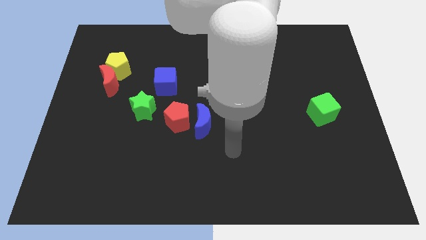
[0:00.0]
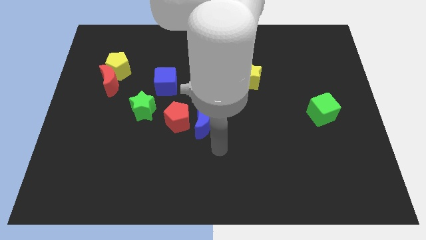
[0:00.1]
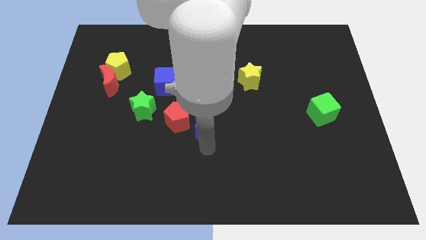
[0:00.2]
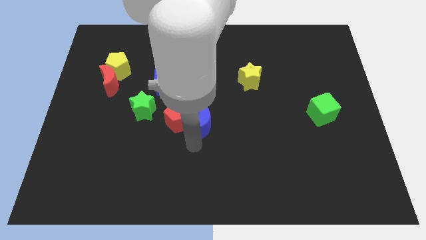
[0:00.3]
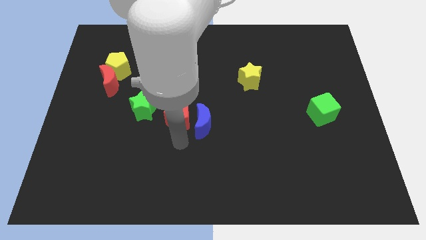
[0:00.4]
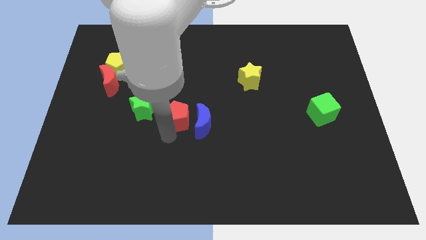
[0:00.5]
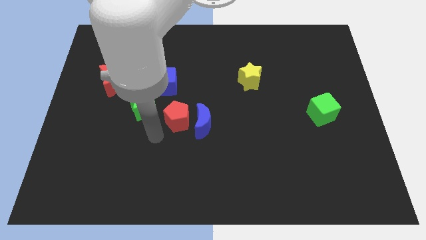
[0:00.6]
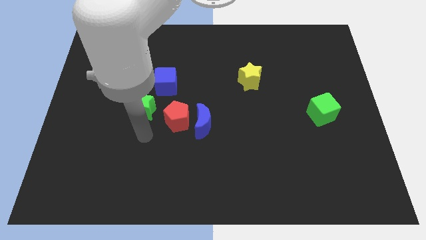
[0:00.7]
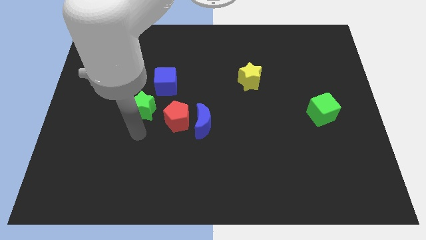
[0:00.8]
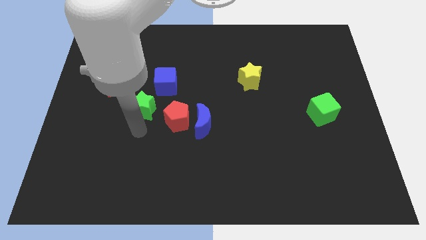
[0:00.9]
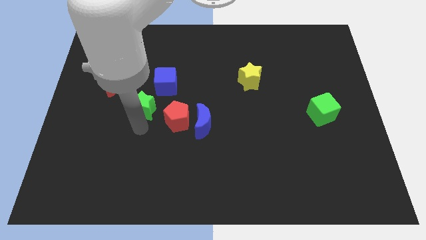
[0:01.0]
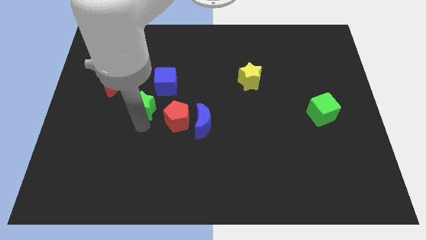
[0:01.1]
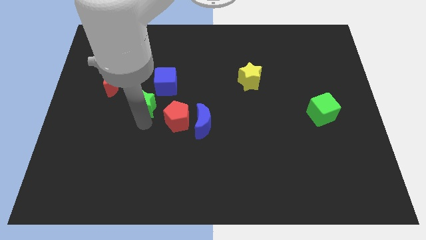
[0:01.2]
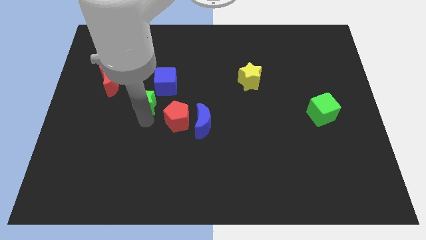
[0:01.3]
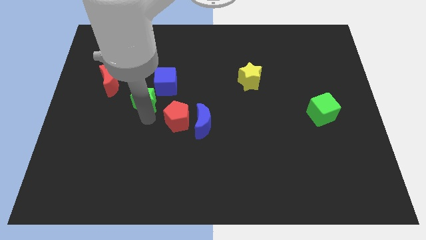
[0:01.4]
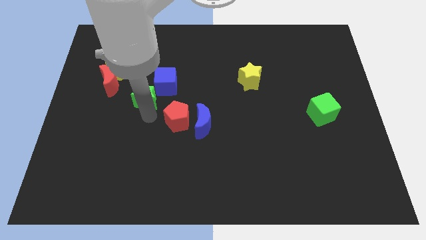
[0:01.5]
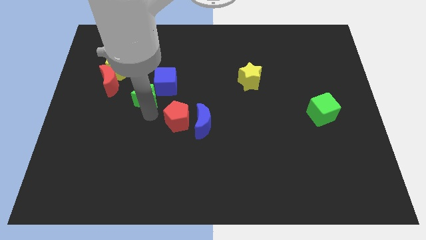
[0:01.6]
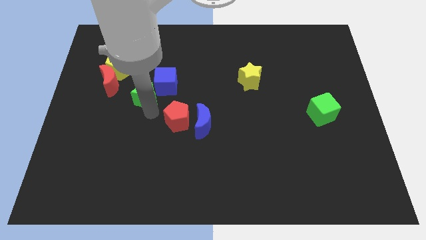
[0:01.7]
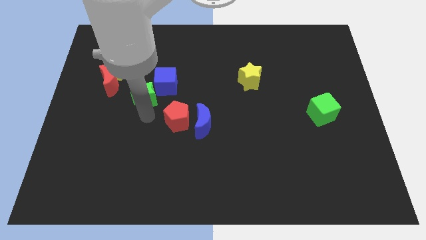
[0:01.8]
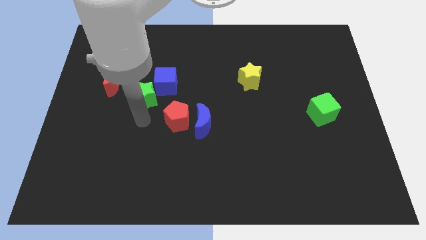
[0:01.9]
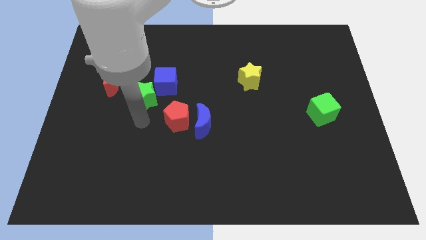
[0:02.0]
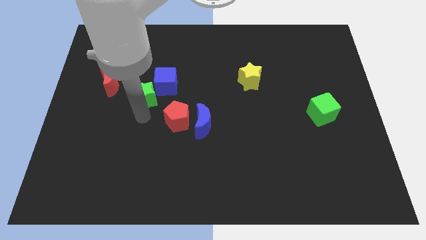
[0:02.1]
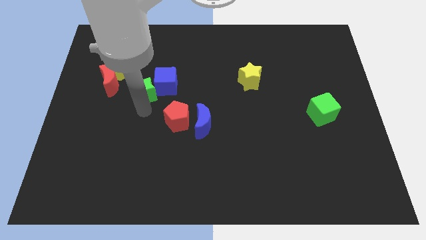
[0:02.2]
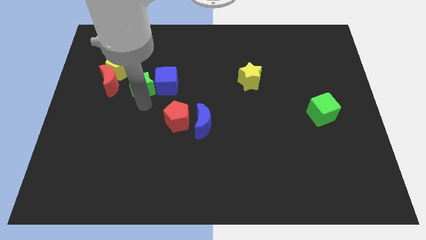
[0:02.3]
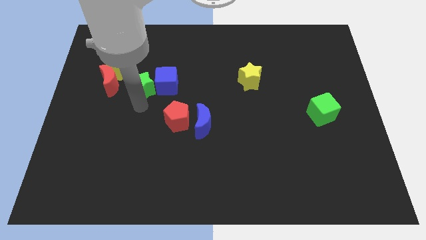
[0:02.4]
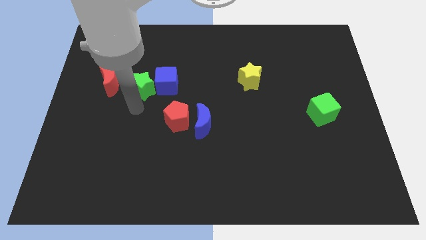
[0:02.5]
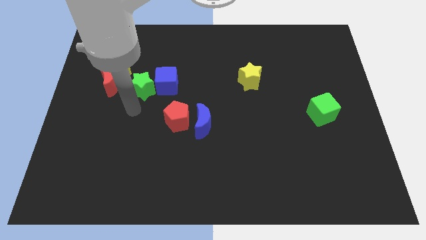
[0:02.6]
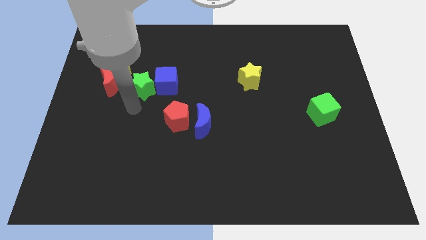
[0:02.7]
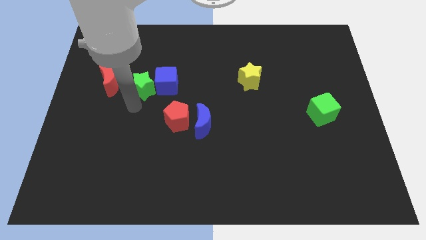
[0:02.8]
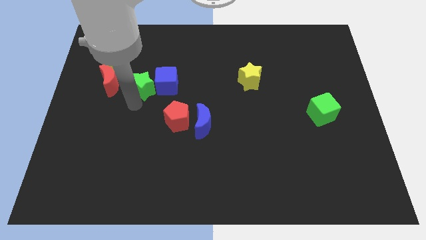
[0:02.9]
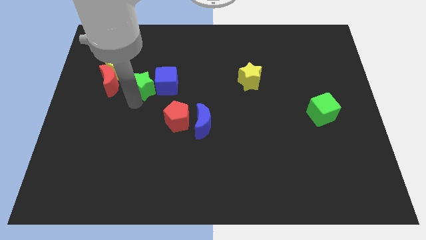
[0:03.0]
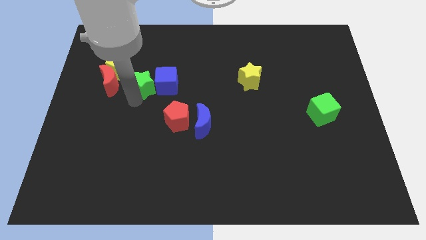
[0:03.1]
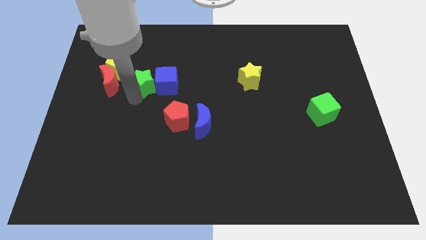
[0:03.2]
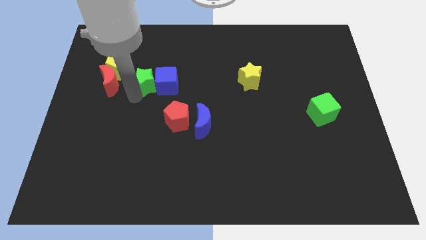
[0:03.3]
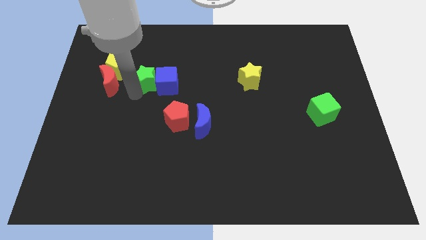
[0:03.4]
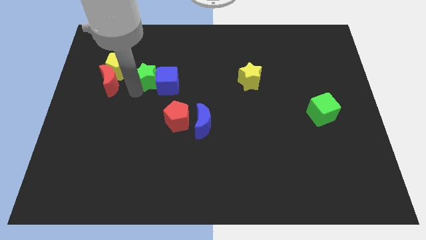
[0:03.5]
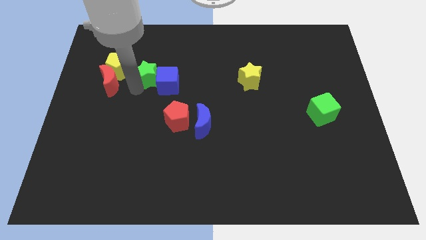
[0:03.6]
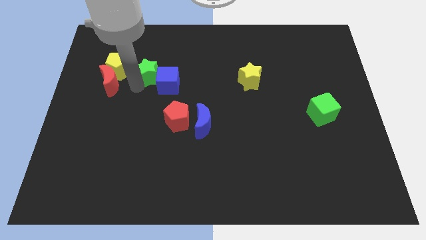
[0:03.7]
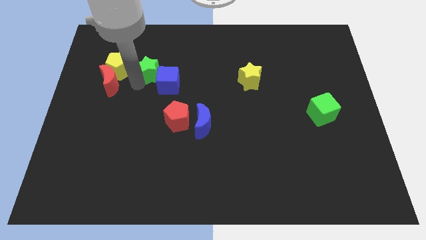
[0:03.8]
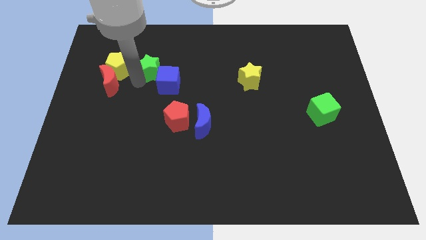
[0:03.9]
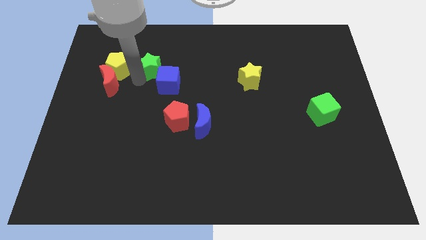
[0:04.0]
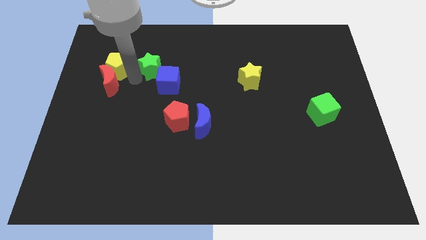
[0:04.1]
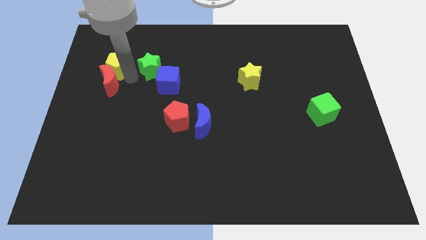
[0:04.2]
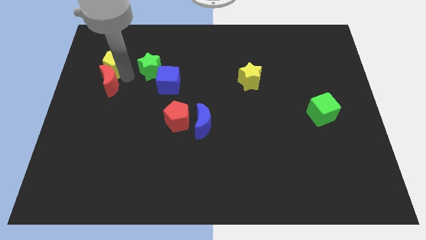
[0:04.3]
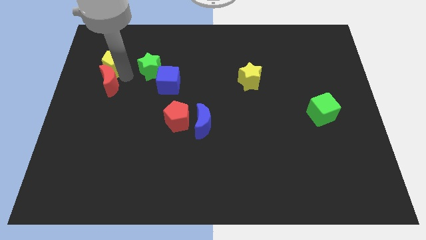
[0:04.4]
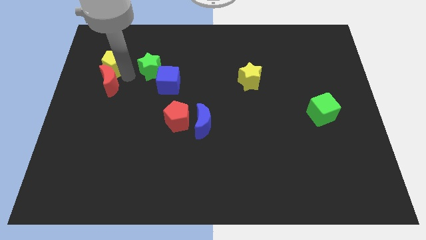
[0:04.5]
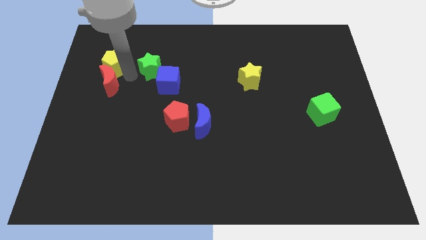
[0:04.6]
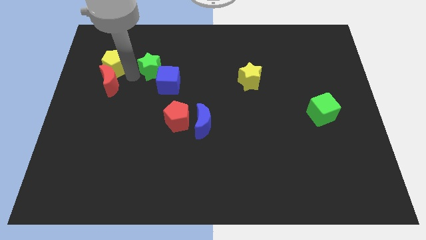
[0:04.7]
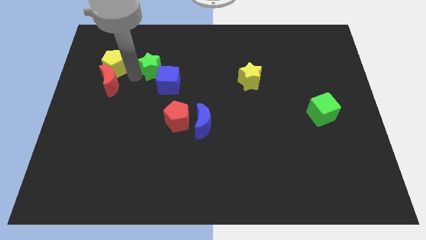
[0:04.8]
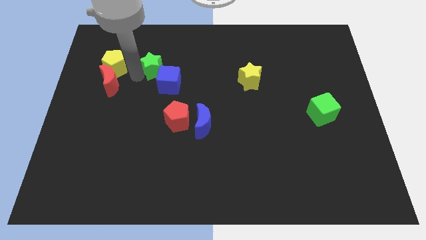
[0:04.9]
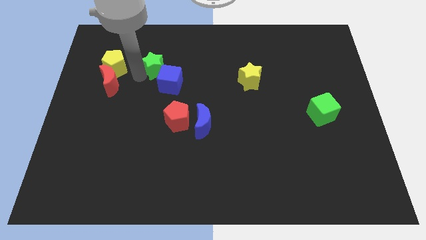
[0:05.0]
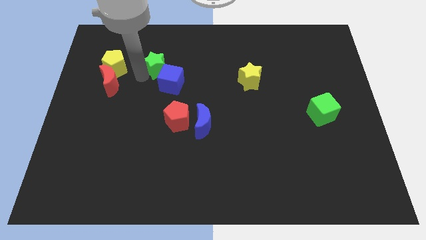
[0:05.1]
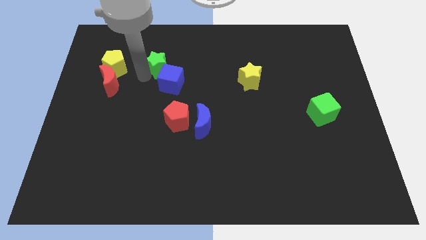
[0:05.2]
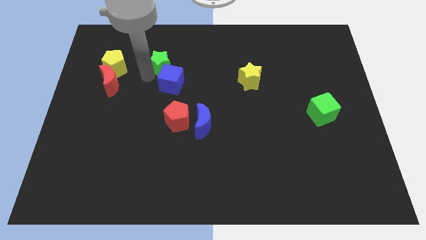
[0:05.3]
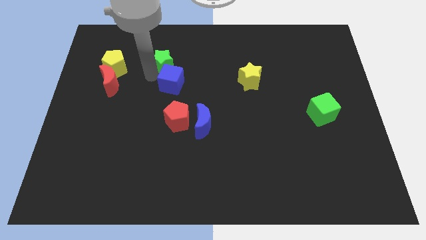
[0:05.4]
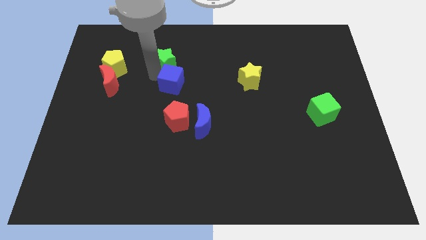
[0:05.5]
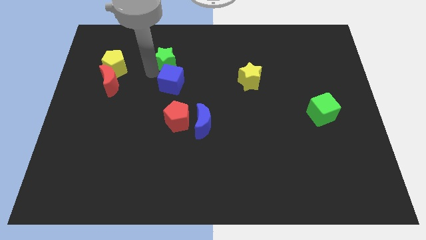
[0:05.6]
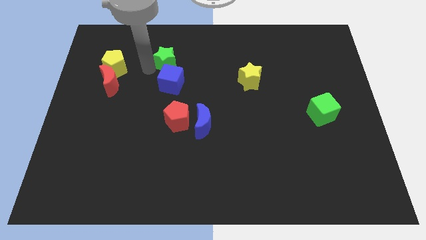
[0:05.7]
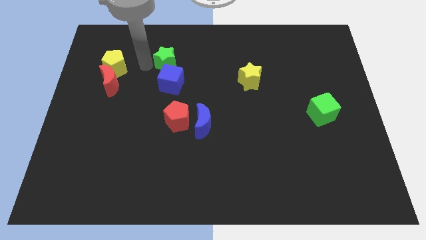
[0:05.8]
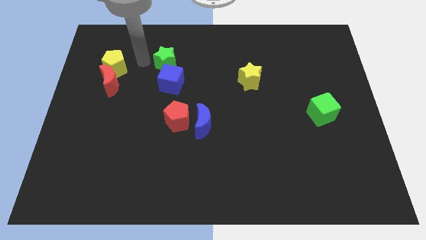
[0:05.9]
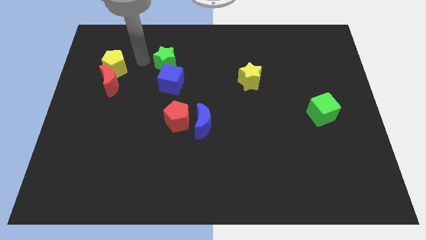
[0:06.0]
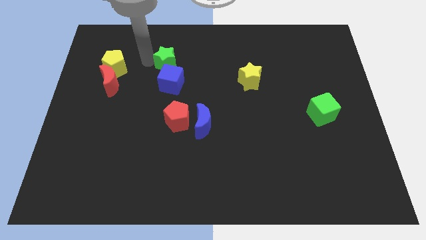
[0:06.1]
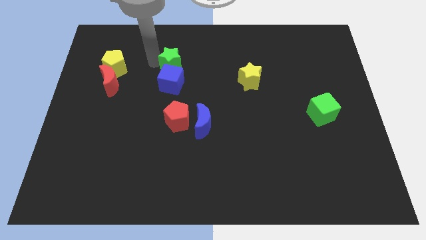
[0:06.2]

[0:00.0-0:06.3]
slide the green star diagonally up and to the right of the blue cube
